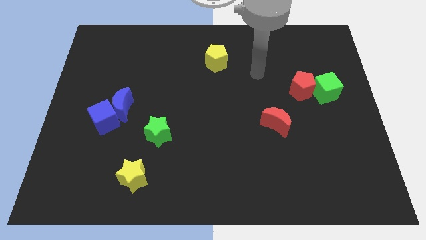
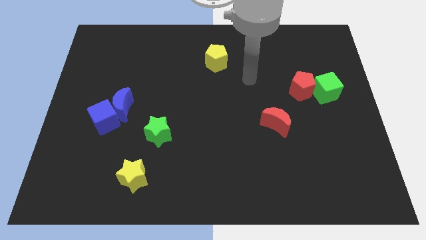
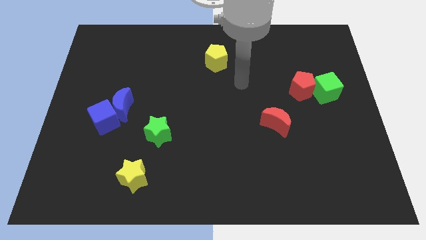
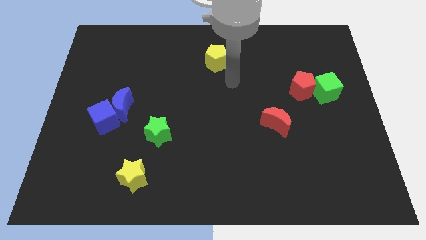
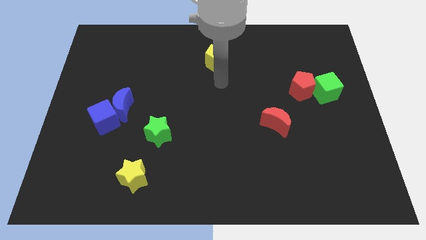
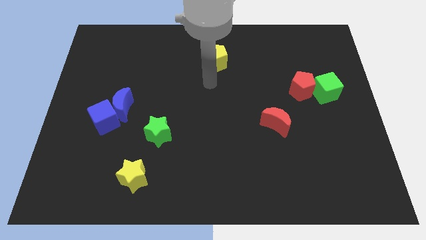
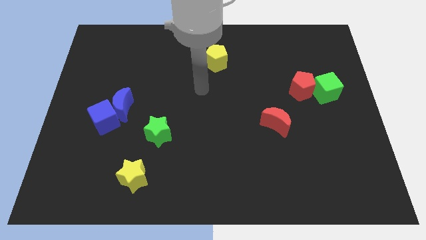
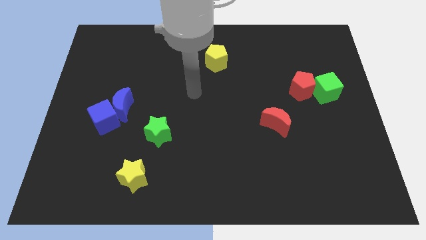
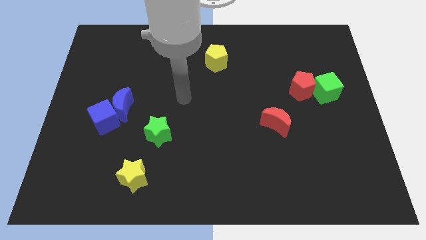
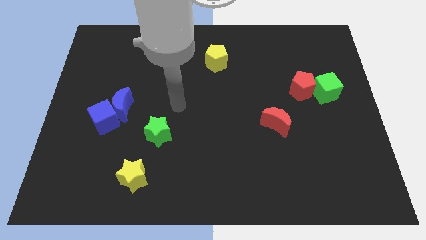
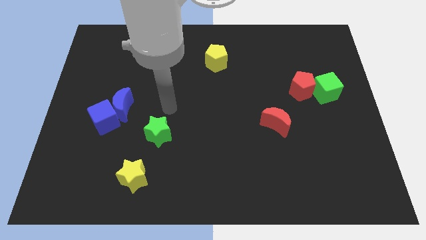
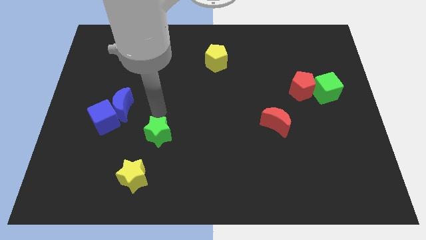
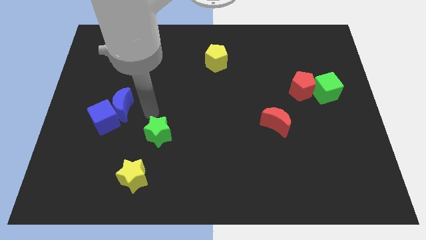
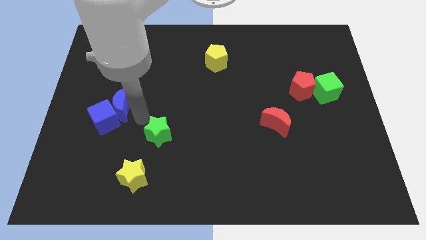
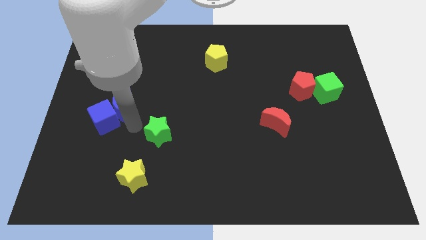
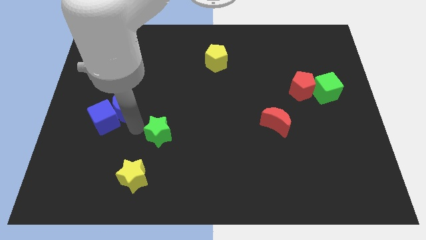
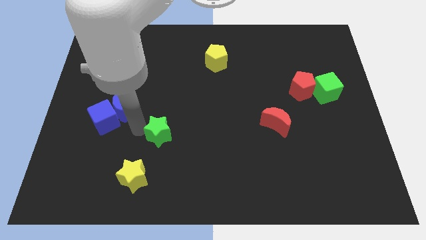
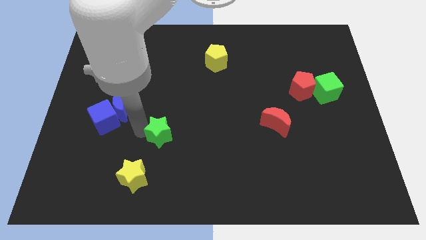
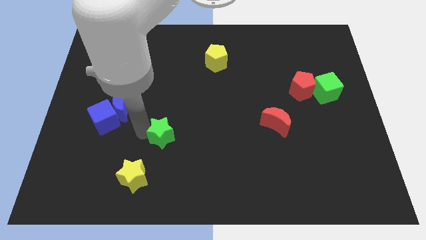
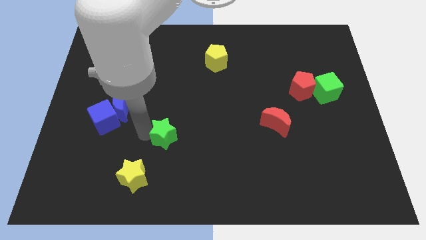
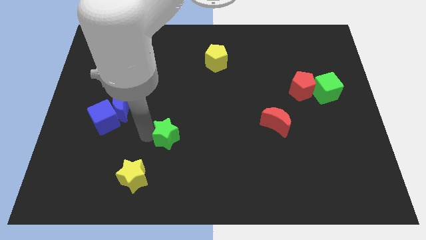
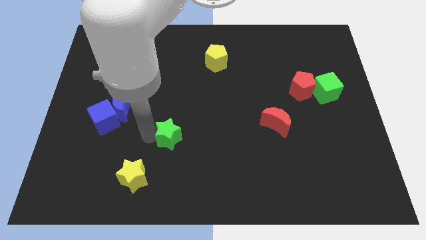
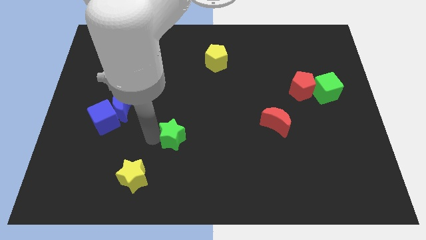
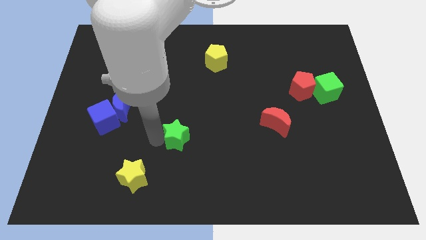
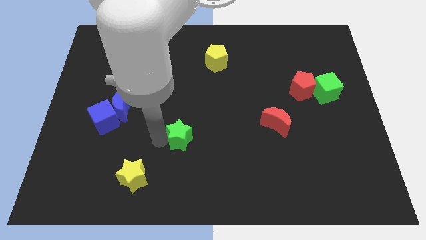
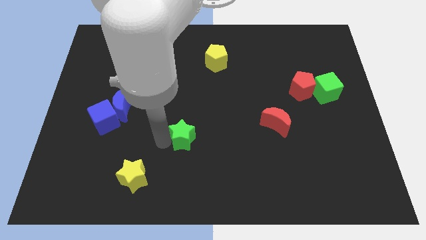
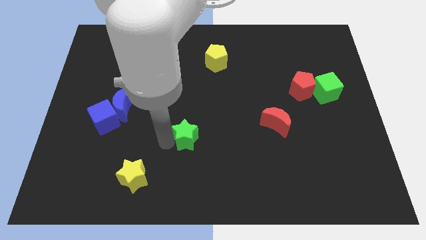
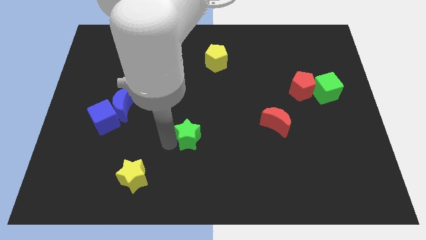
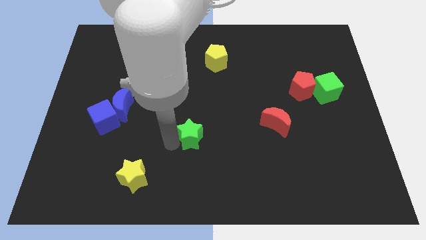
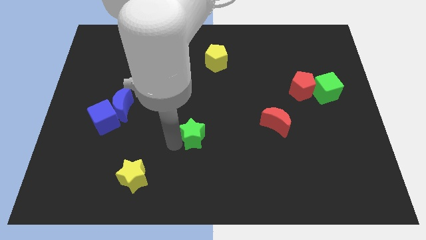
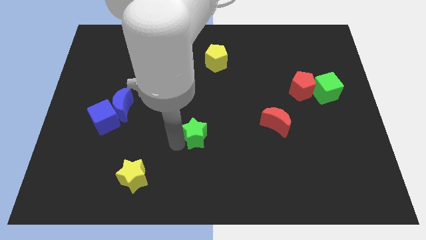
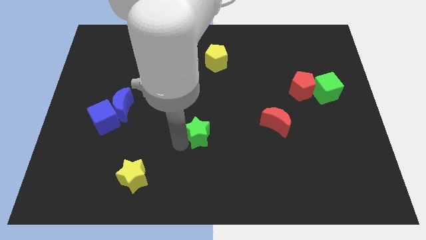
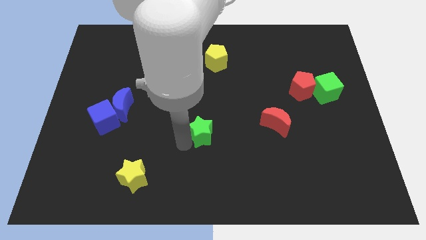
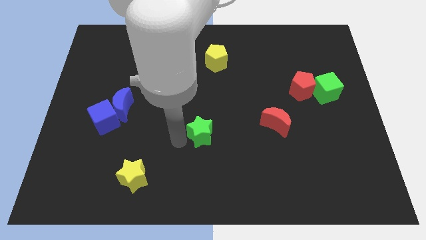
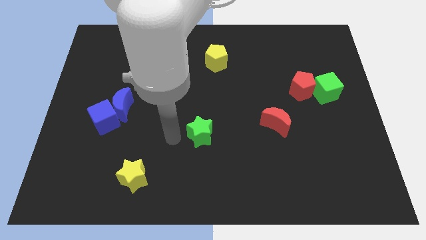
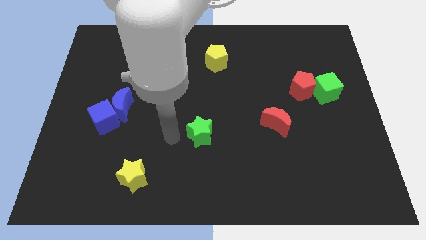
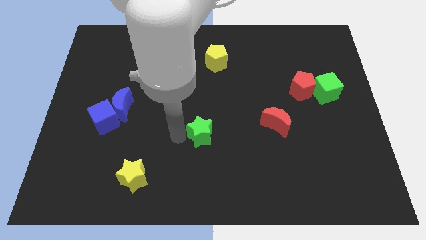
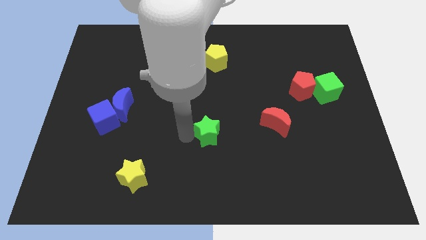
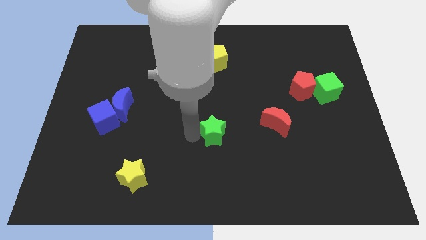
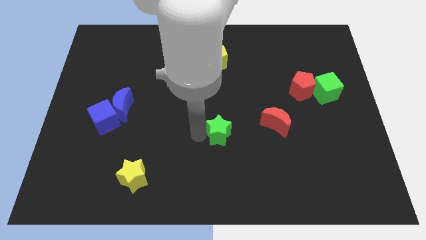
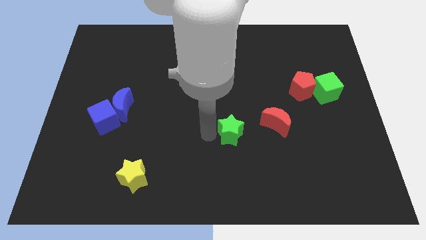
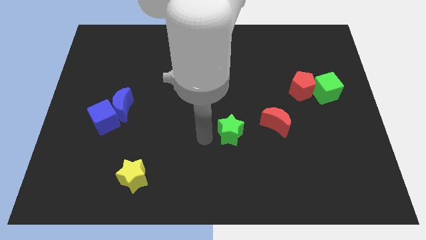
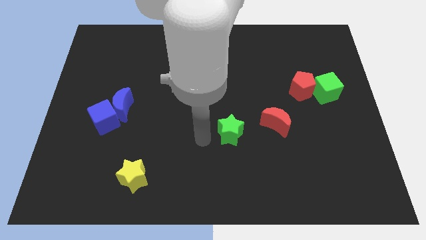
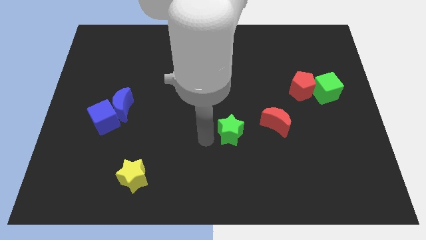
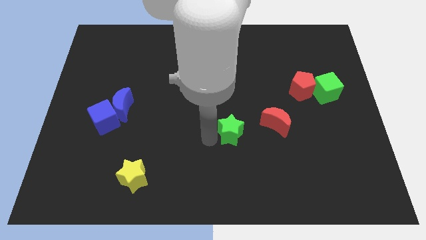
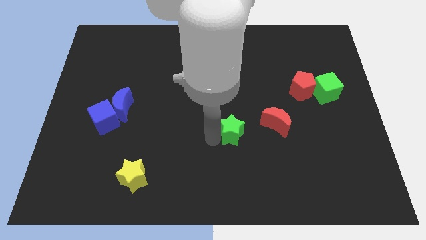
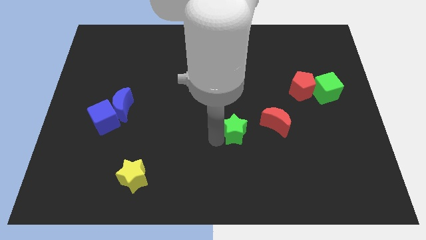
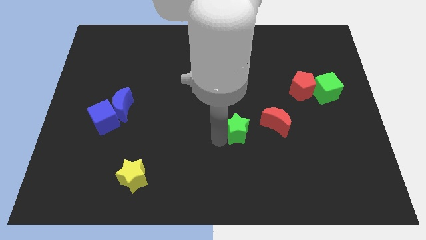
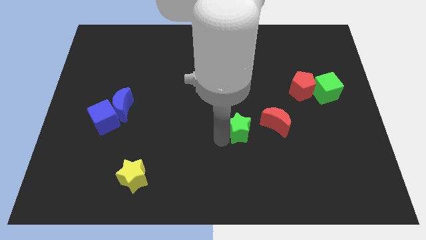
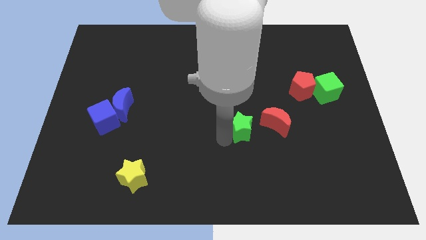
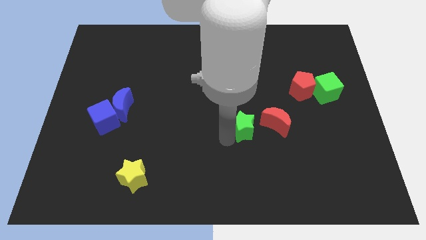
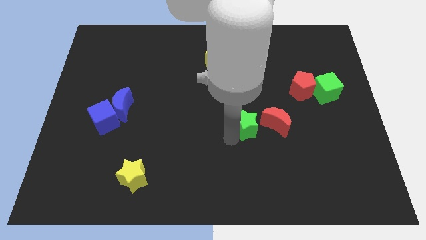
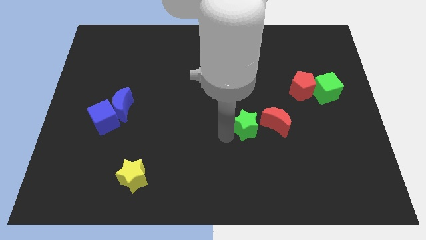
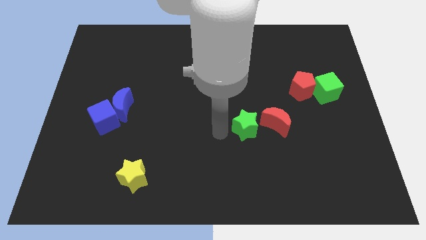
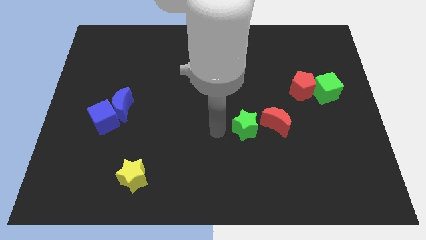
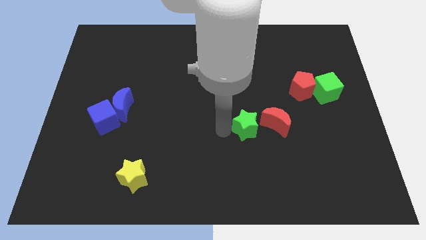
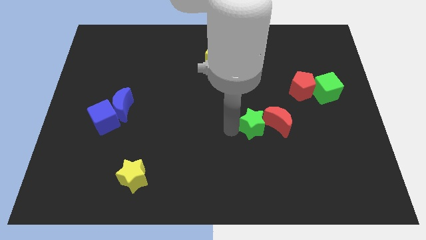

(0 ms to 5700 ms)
push the green star next to the red moon

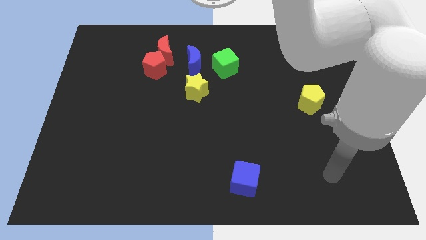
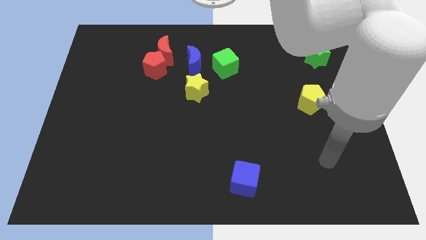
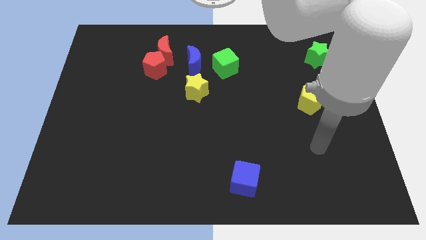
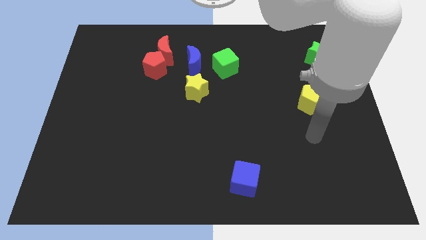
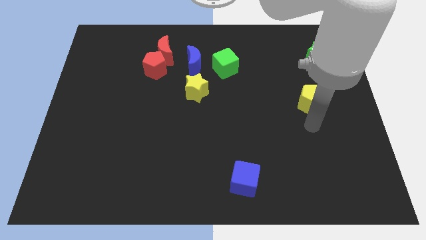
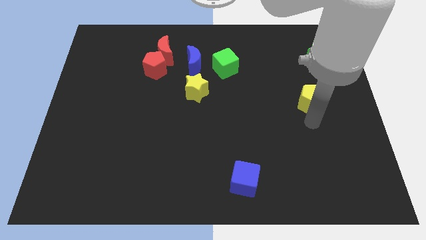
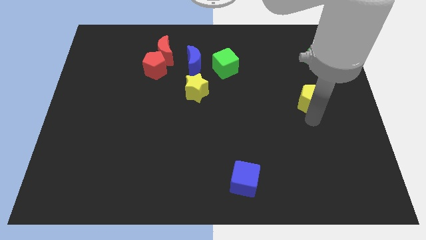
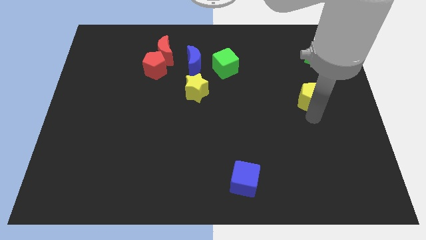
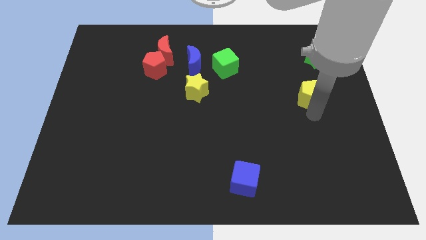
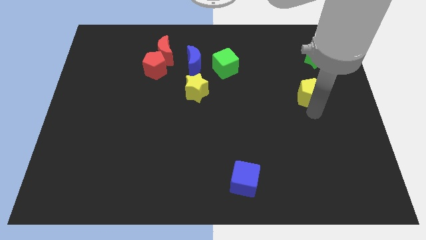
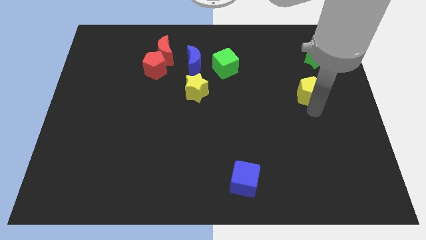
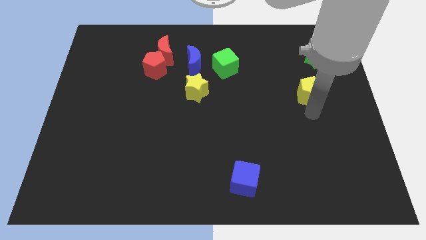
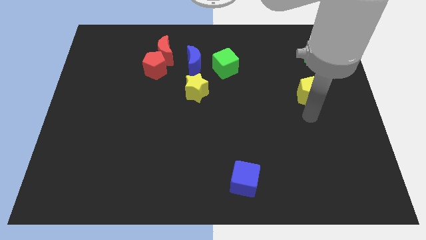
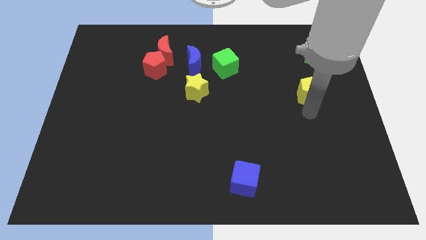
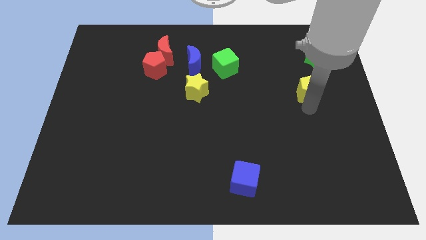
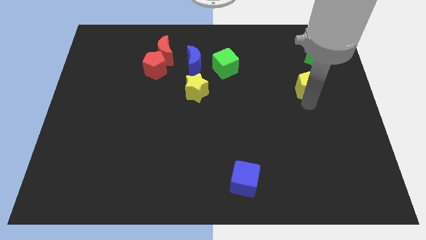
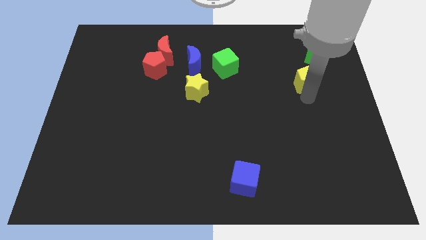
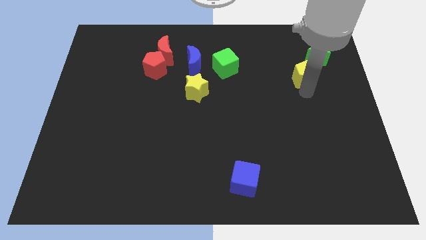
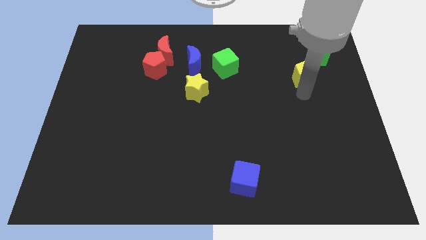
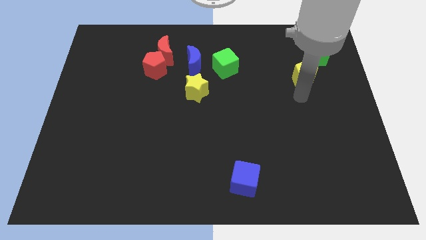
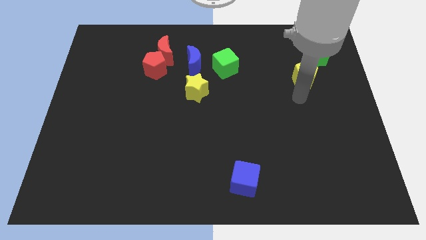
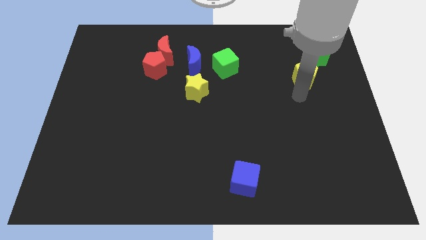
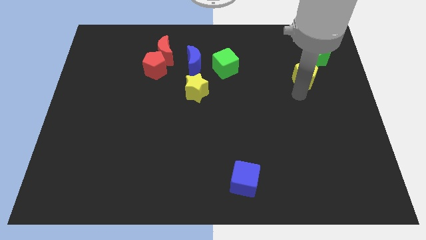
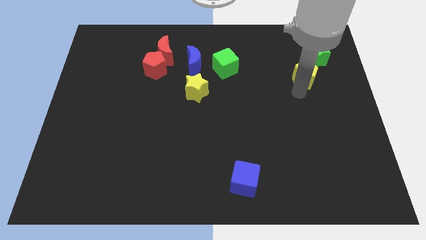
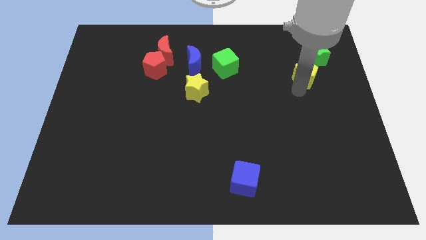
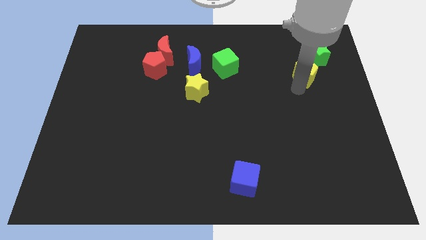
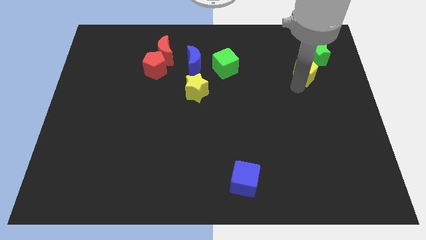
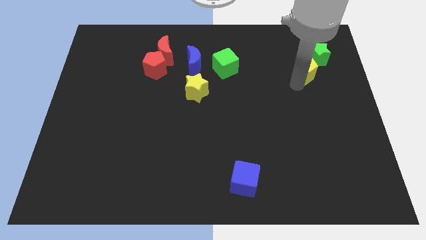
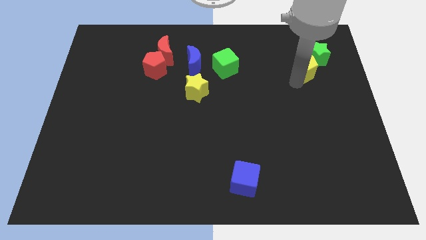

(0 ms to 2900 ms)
put the yellow pentagon next to the green star
